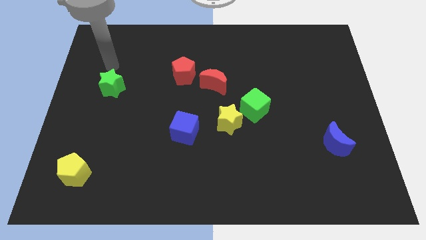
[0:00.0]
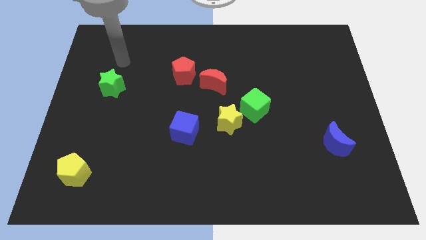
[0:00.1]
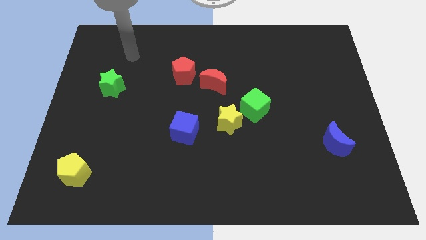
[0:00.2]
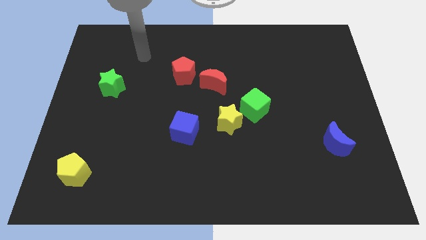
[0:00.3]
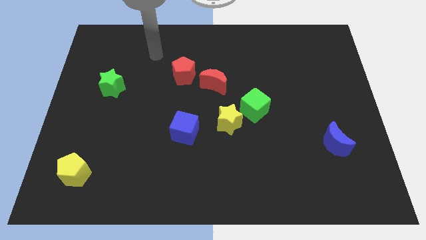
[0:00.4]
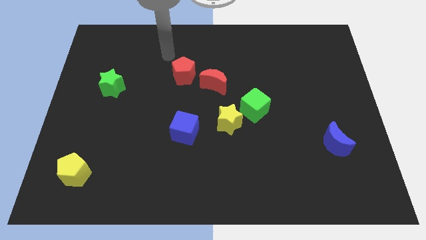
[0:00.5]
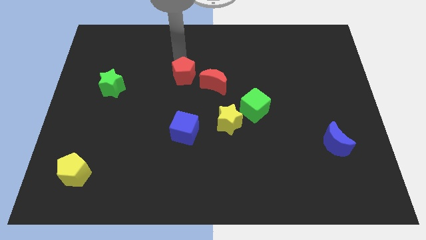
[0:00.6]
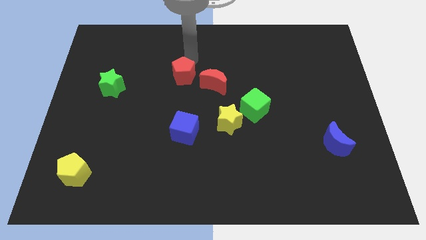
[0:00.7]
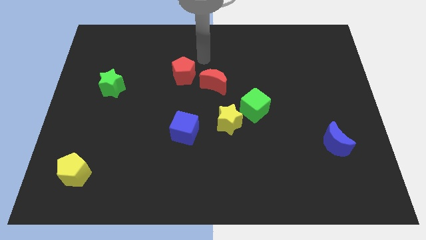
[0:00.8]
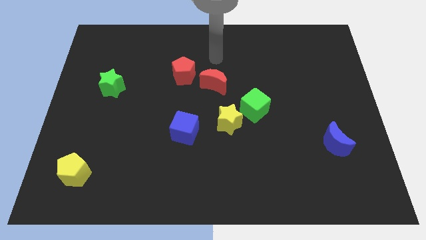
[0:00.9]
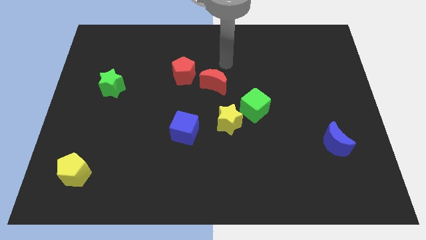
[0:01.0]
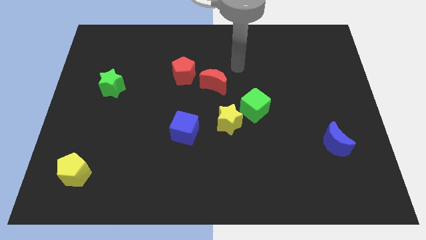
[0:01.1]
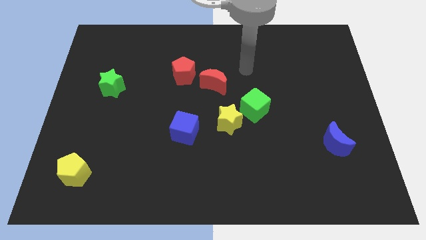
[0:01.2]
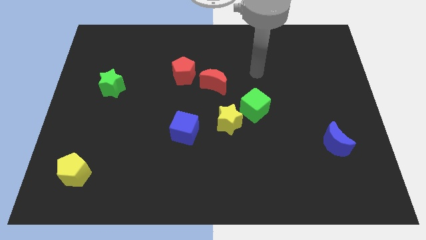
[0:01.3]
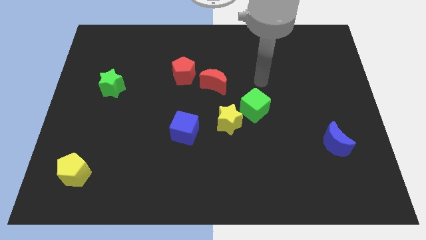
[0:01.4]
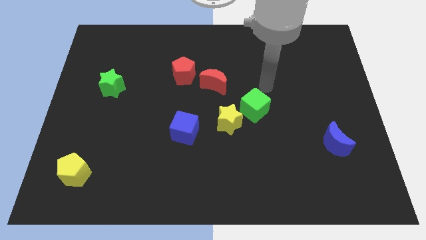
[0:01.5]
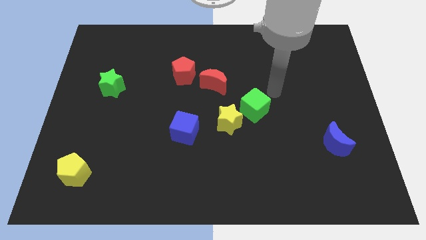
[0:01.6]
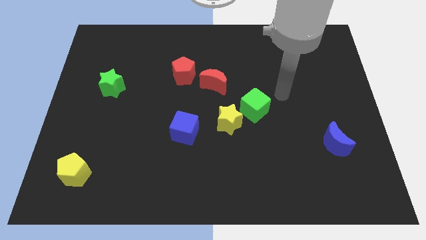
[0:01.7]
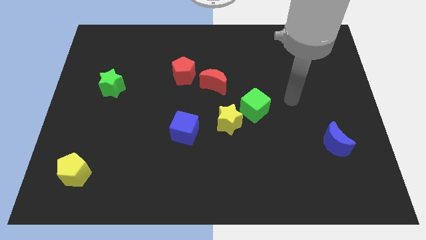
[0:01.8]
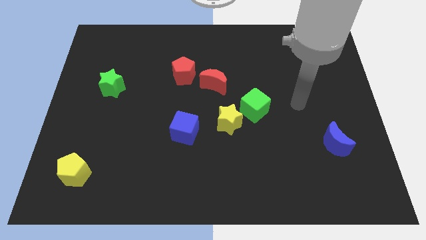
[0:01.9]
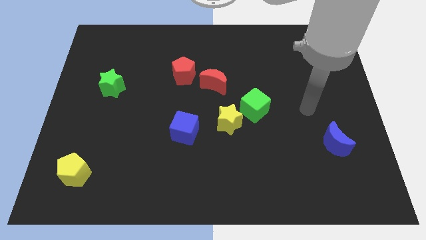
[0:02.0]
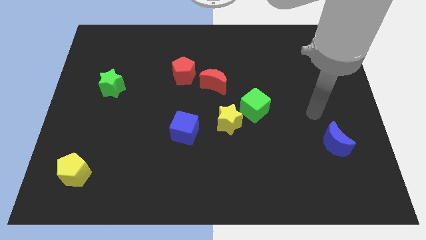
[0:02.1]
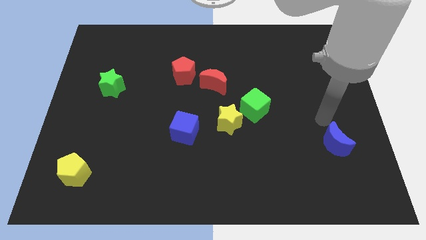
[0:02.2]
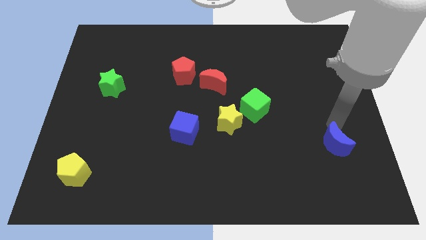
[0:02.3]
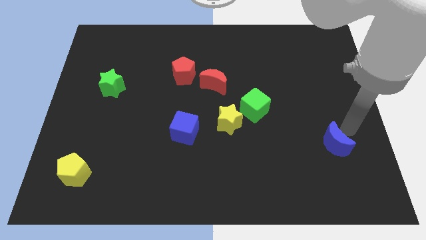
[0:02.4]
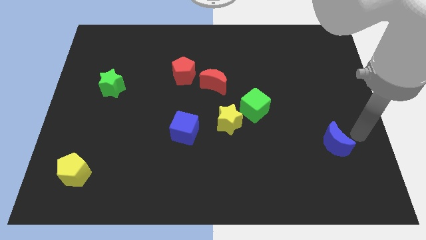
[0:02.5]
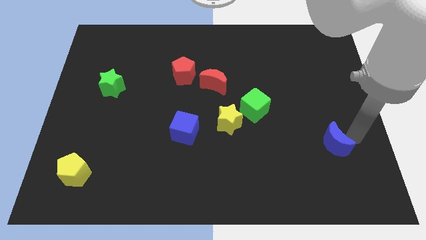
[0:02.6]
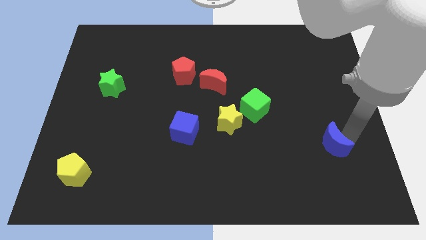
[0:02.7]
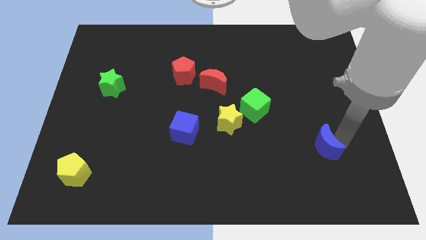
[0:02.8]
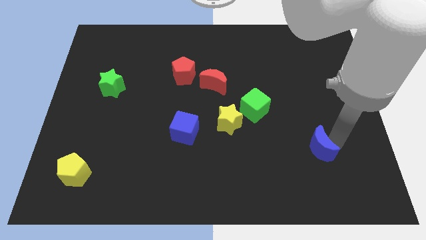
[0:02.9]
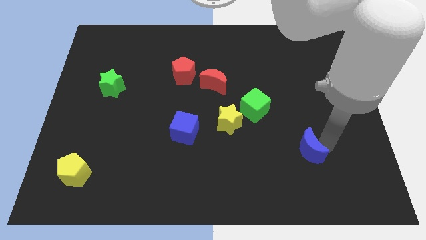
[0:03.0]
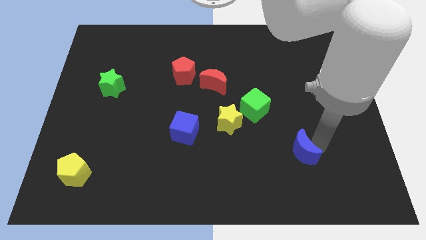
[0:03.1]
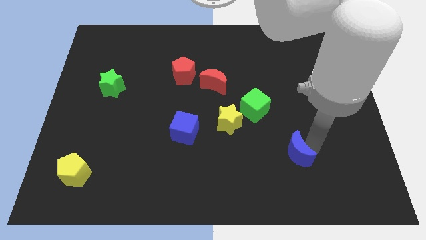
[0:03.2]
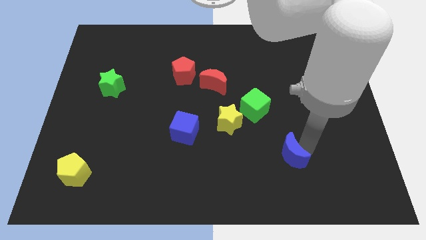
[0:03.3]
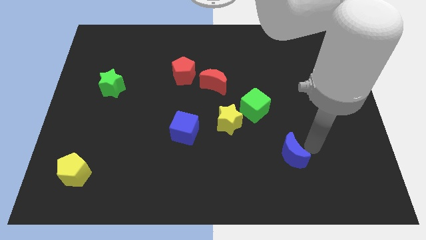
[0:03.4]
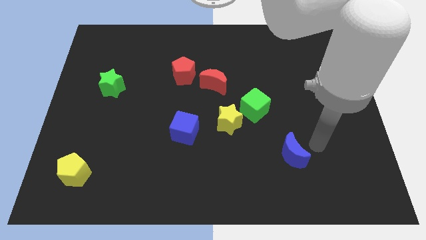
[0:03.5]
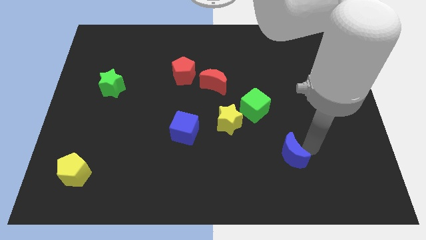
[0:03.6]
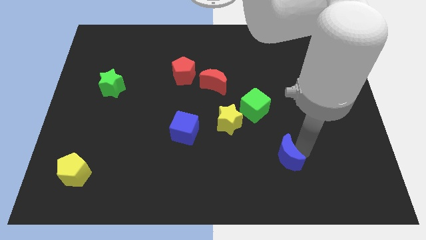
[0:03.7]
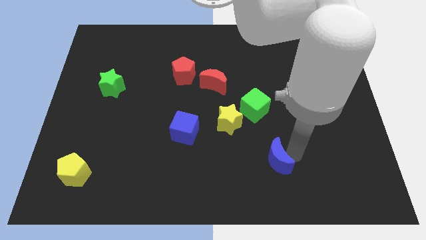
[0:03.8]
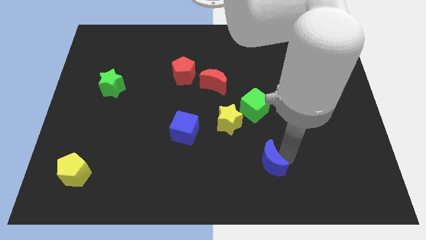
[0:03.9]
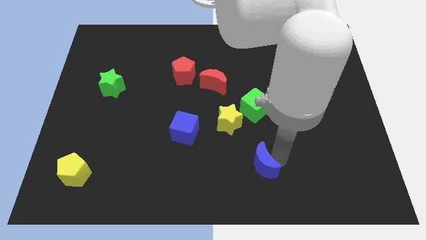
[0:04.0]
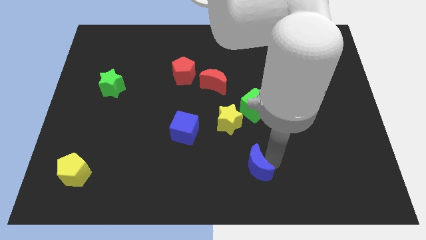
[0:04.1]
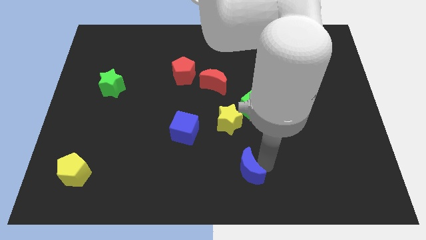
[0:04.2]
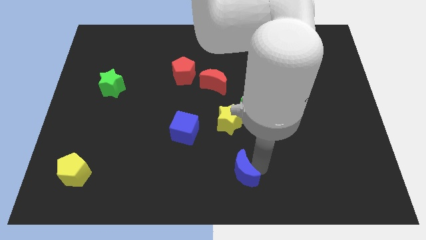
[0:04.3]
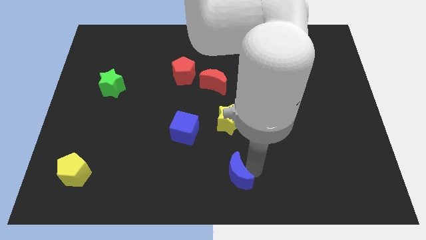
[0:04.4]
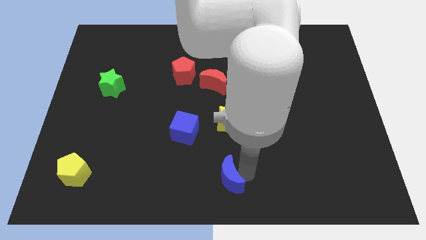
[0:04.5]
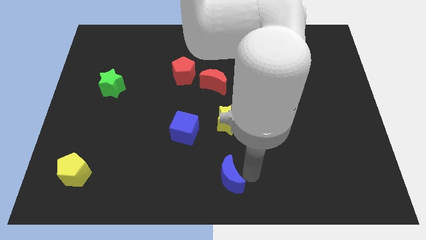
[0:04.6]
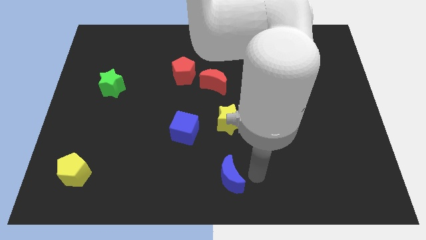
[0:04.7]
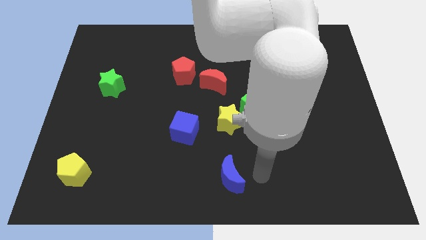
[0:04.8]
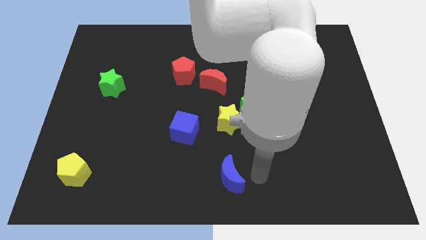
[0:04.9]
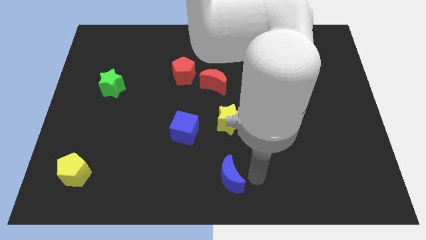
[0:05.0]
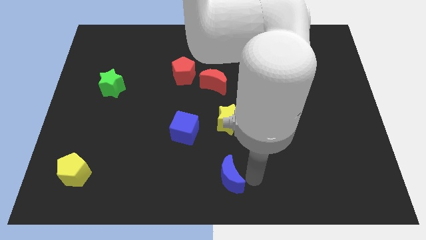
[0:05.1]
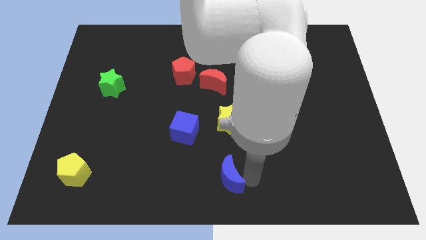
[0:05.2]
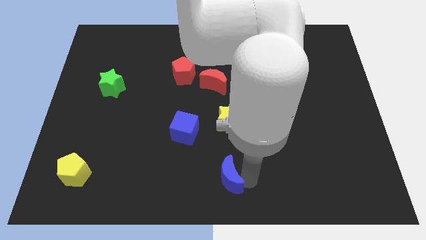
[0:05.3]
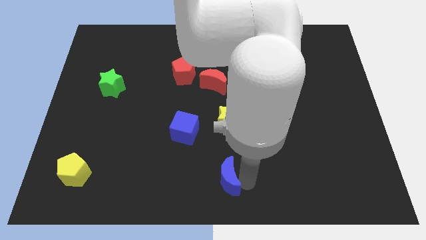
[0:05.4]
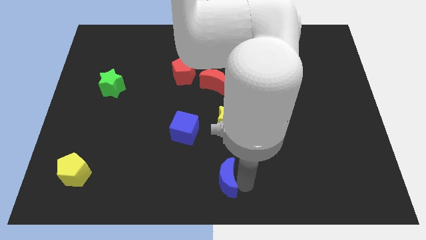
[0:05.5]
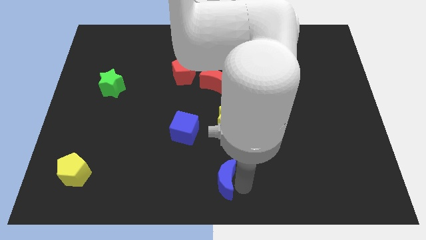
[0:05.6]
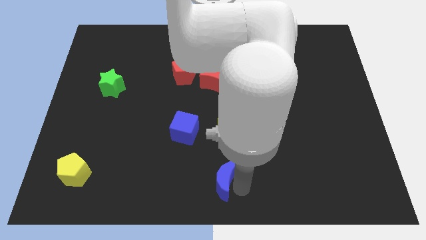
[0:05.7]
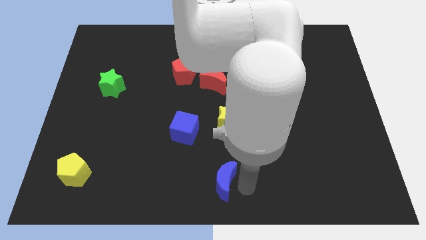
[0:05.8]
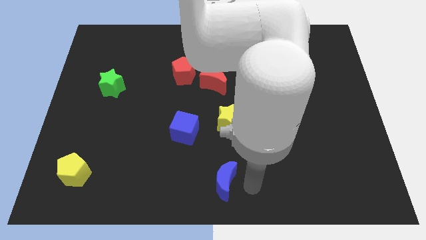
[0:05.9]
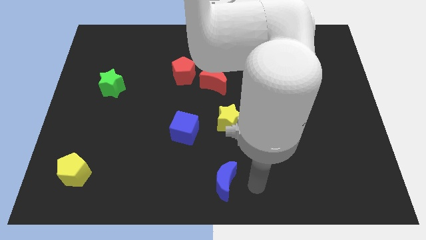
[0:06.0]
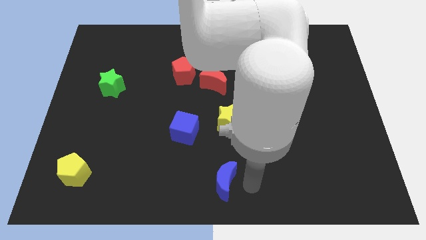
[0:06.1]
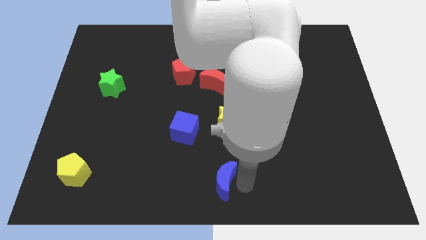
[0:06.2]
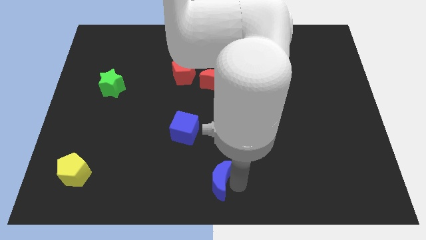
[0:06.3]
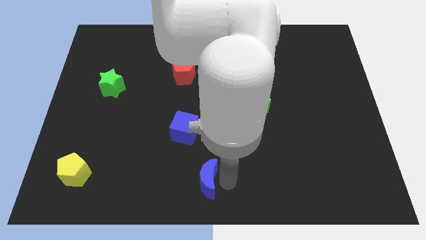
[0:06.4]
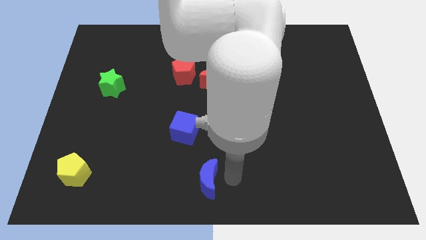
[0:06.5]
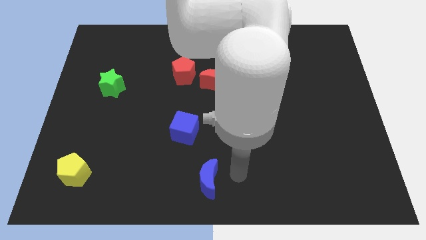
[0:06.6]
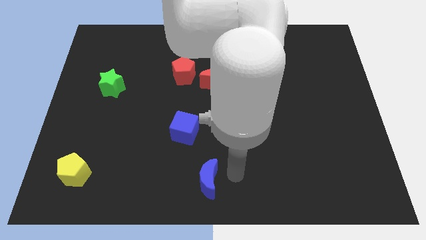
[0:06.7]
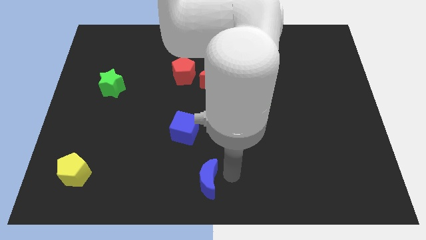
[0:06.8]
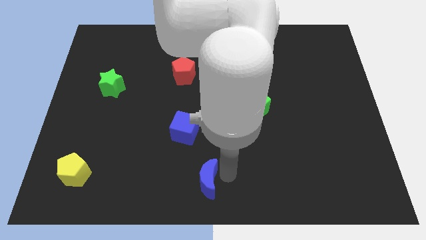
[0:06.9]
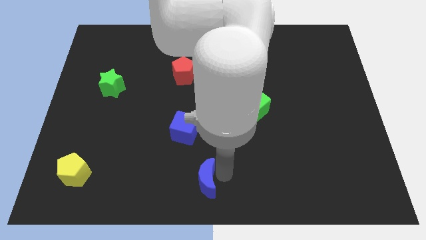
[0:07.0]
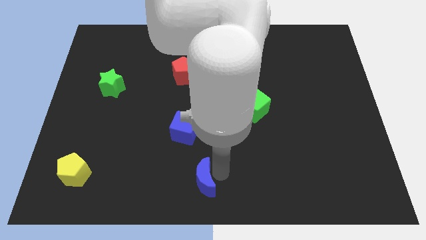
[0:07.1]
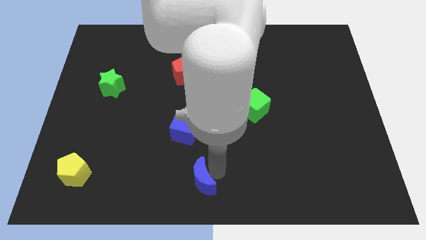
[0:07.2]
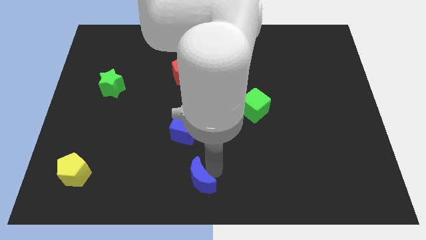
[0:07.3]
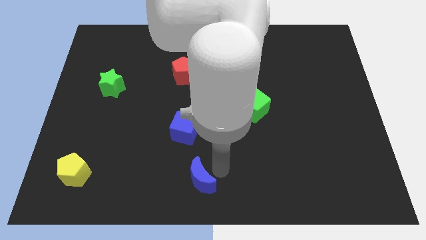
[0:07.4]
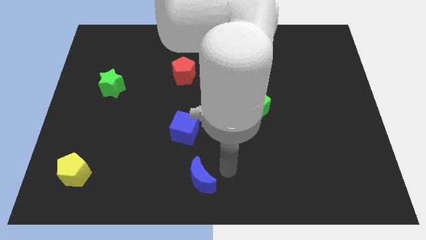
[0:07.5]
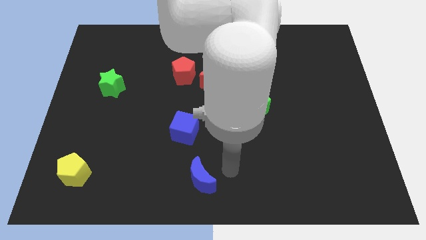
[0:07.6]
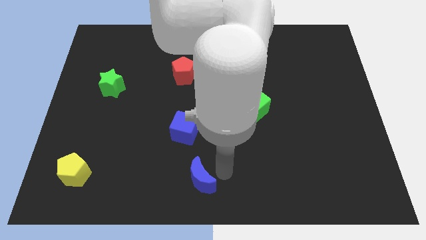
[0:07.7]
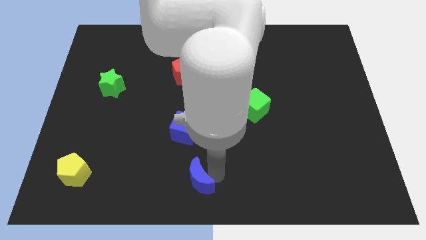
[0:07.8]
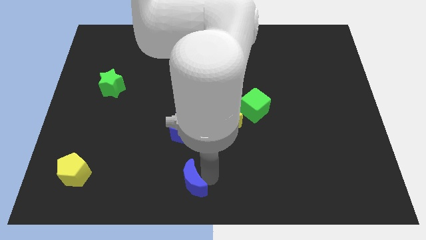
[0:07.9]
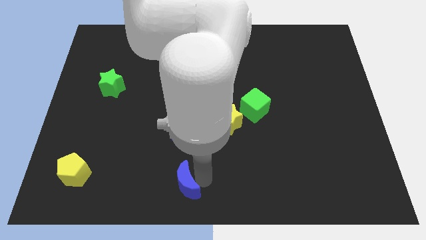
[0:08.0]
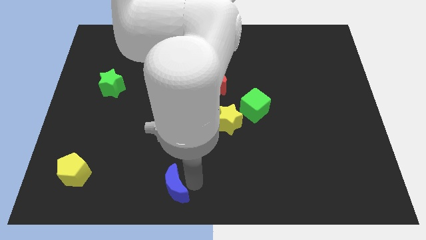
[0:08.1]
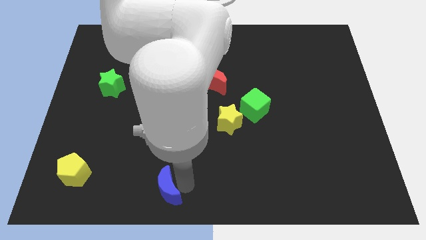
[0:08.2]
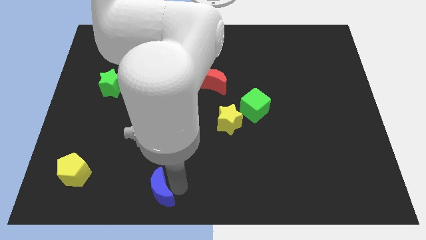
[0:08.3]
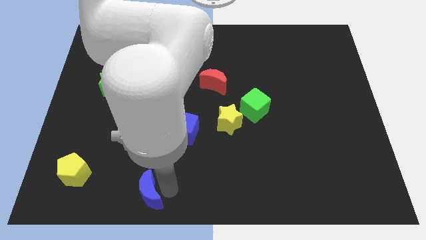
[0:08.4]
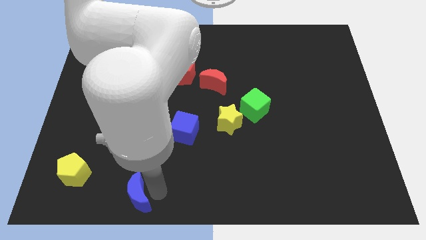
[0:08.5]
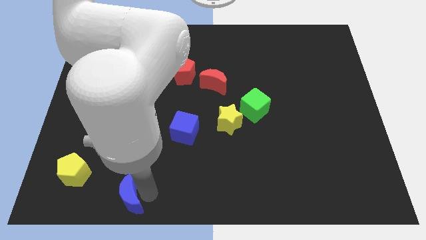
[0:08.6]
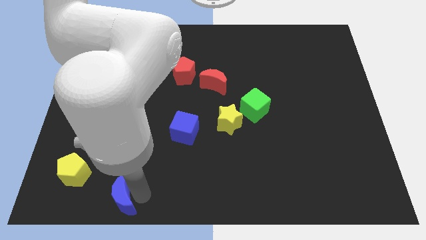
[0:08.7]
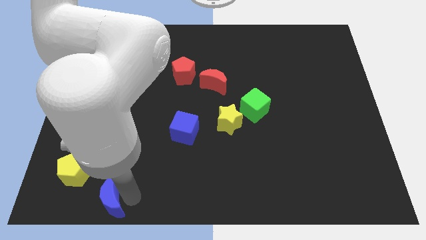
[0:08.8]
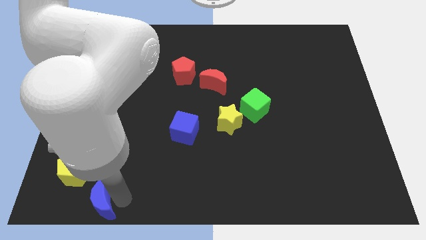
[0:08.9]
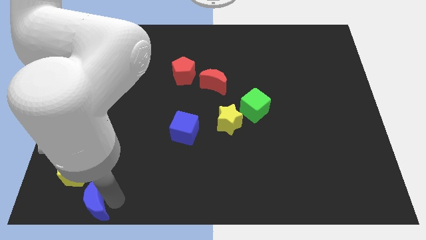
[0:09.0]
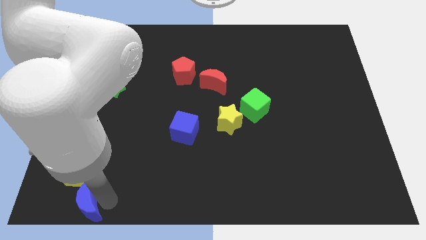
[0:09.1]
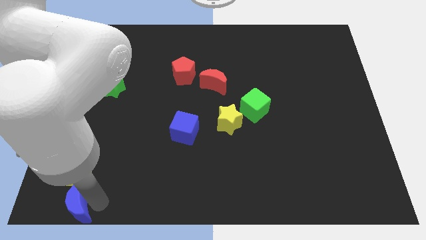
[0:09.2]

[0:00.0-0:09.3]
push the blue moon to the bottom left
